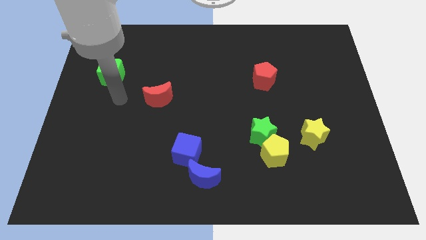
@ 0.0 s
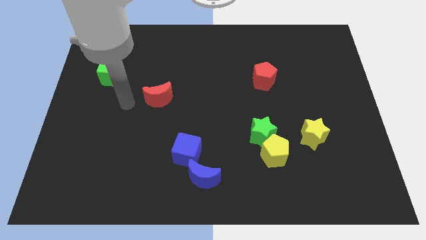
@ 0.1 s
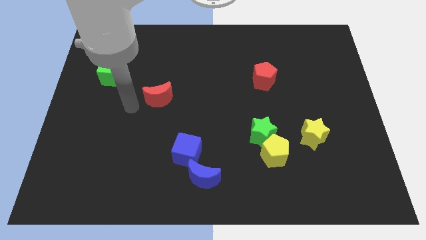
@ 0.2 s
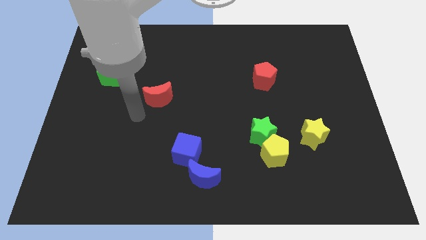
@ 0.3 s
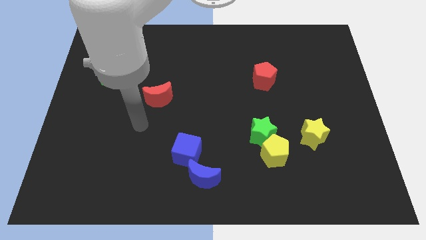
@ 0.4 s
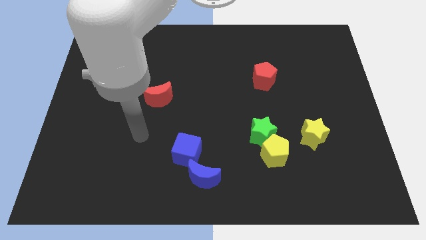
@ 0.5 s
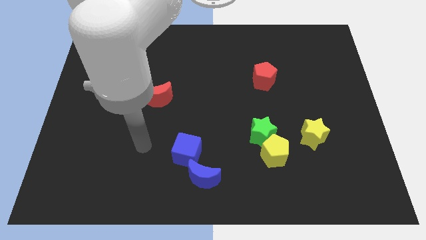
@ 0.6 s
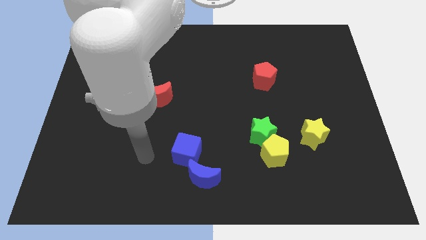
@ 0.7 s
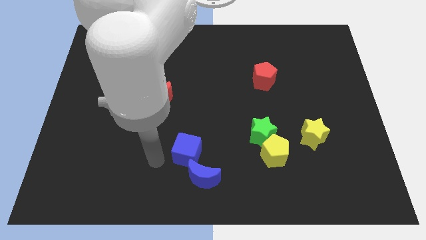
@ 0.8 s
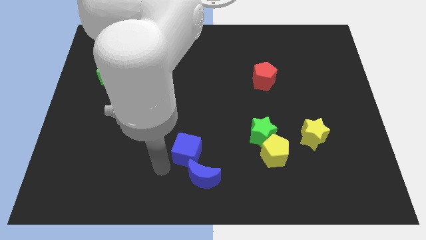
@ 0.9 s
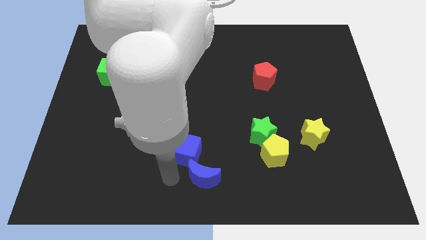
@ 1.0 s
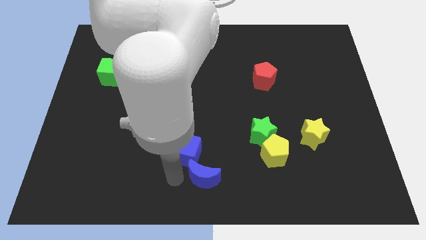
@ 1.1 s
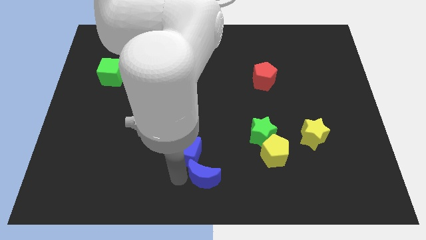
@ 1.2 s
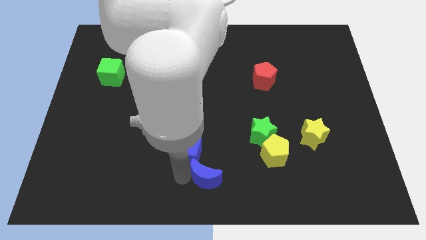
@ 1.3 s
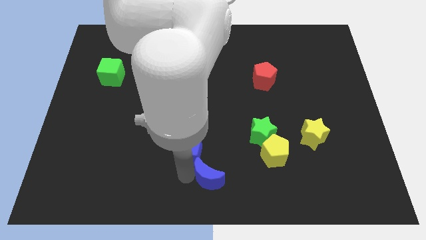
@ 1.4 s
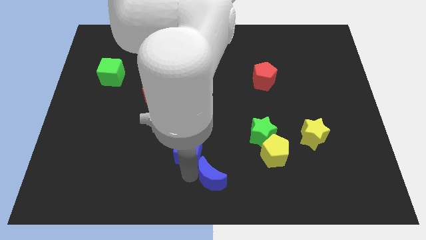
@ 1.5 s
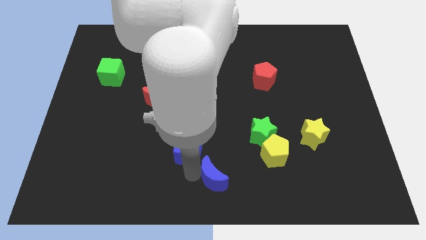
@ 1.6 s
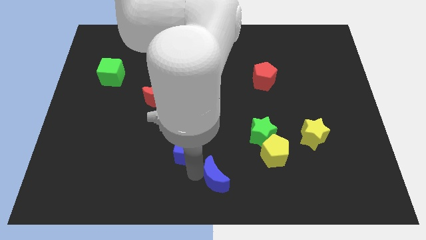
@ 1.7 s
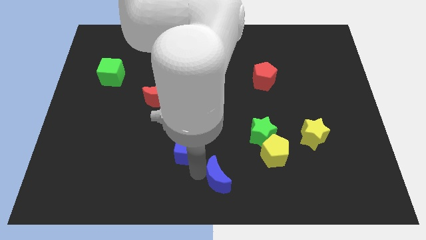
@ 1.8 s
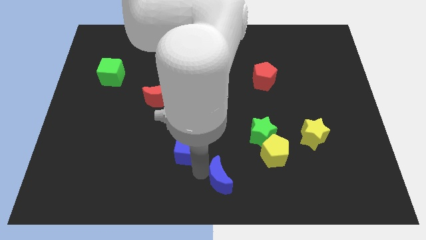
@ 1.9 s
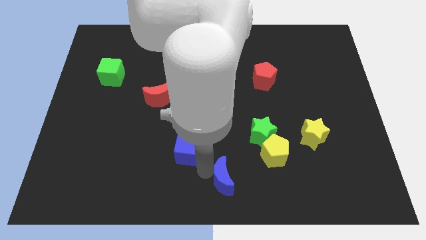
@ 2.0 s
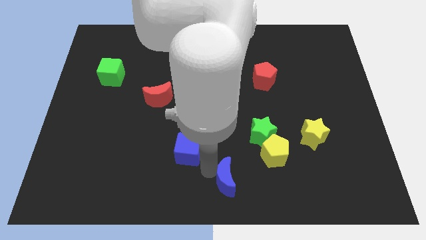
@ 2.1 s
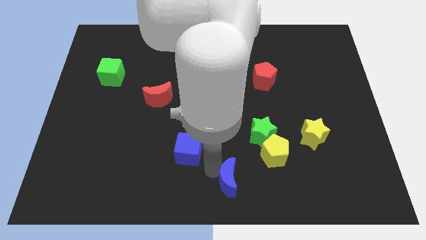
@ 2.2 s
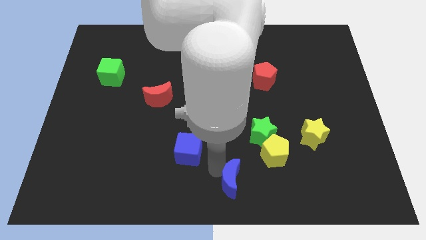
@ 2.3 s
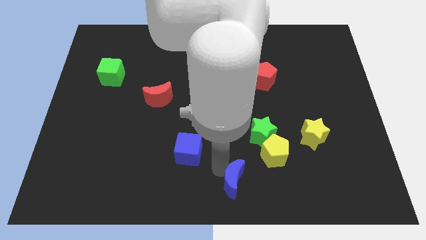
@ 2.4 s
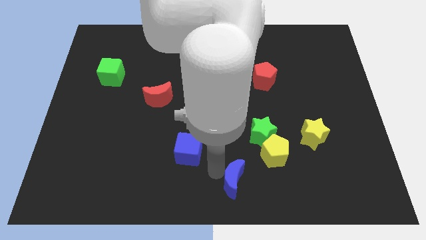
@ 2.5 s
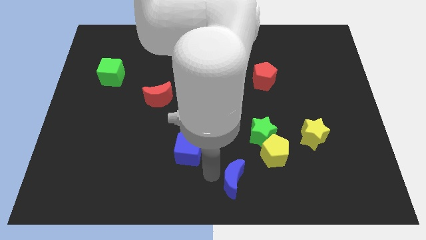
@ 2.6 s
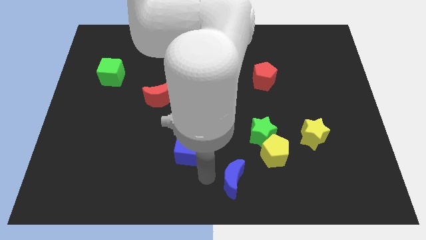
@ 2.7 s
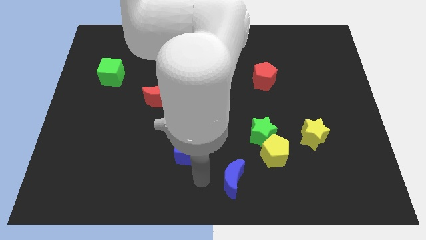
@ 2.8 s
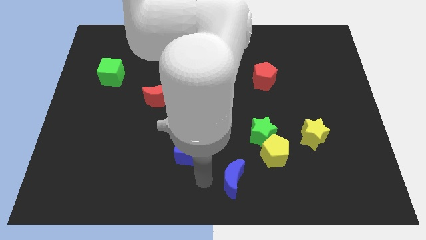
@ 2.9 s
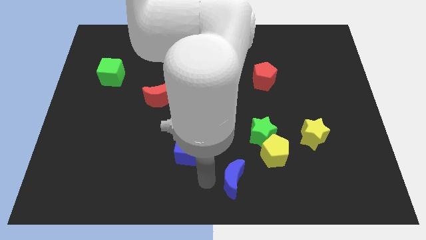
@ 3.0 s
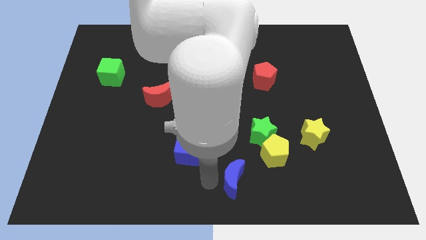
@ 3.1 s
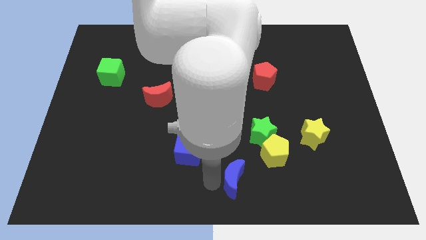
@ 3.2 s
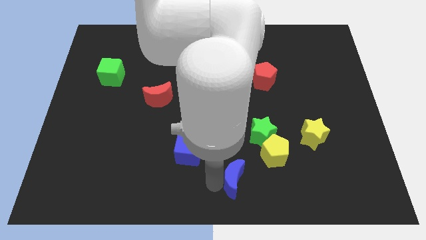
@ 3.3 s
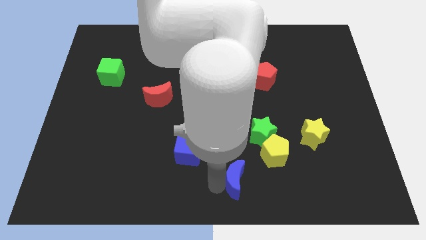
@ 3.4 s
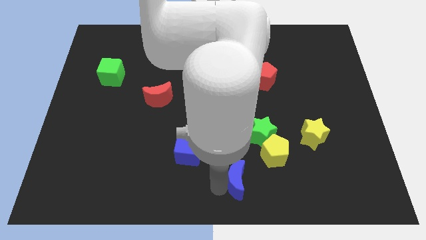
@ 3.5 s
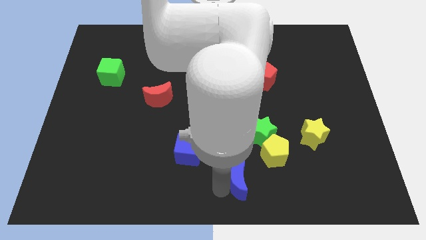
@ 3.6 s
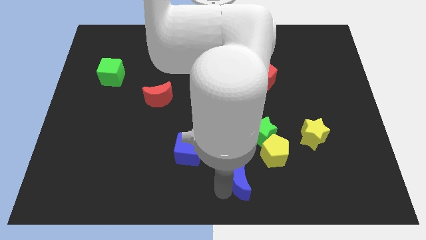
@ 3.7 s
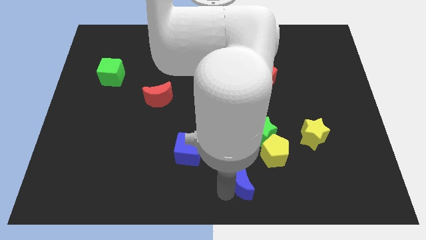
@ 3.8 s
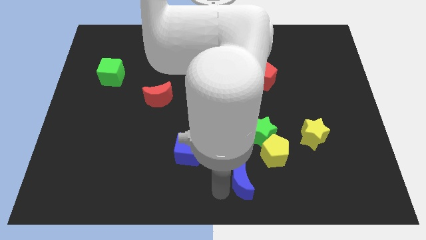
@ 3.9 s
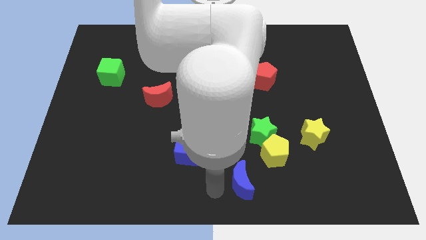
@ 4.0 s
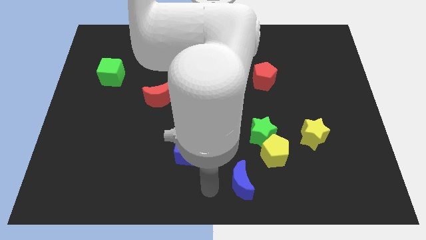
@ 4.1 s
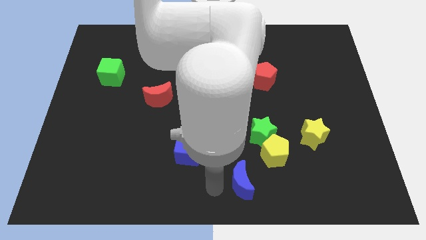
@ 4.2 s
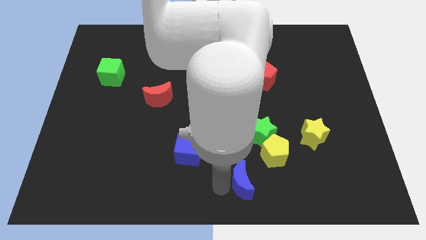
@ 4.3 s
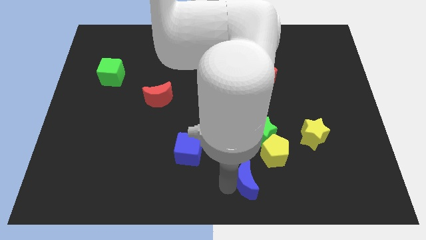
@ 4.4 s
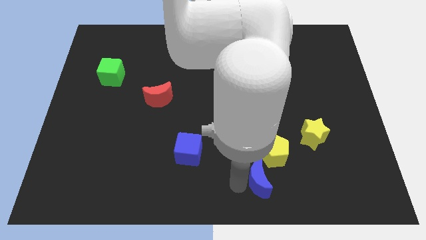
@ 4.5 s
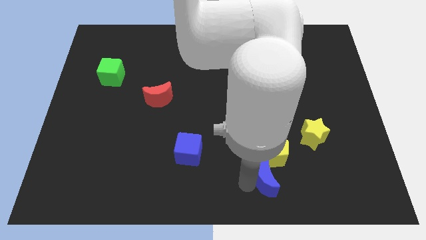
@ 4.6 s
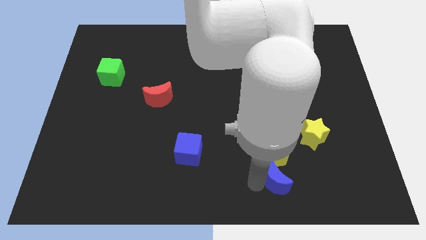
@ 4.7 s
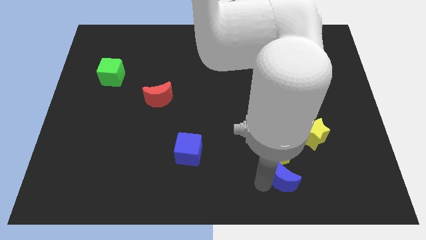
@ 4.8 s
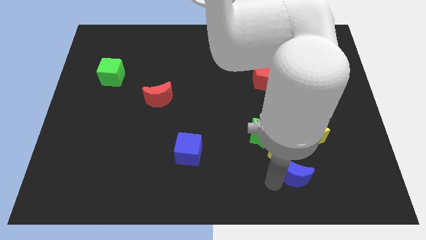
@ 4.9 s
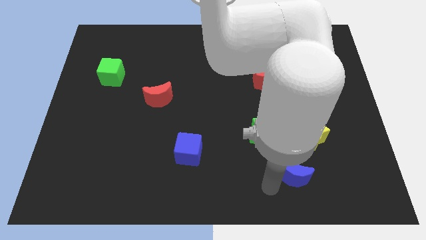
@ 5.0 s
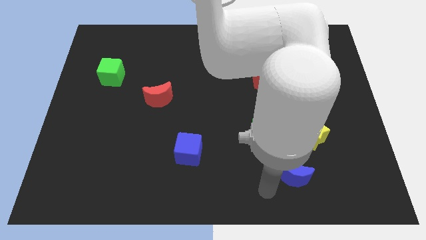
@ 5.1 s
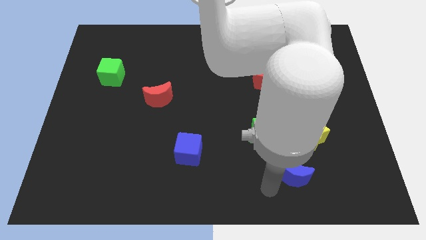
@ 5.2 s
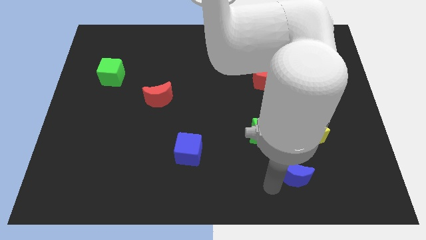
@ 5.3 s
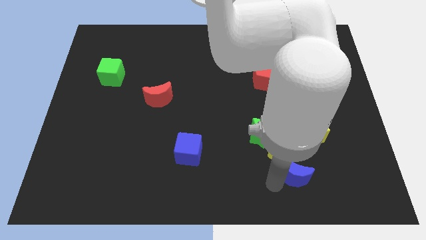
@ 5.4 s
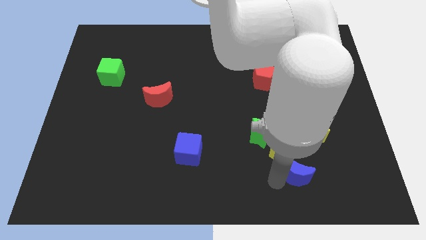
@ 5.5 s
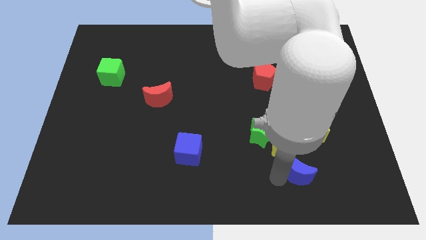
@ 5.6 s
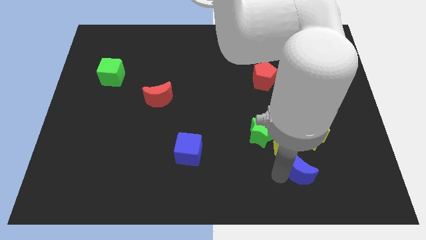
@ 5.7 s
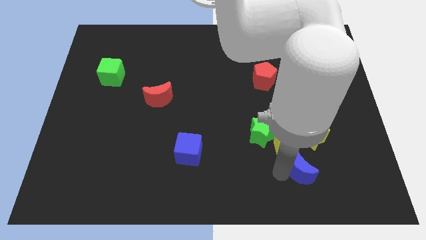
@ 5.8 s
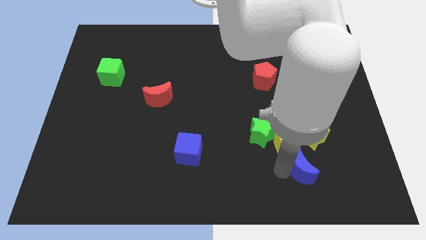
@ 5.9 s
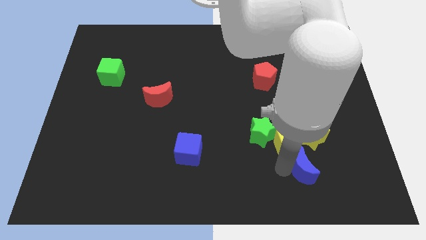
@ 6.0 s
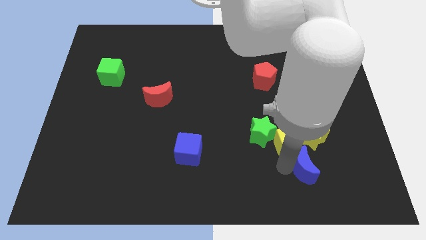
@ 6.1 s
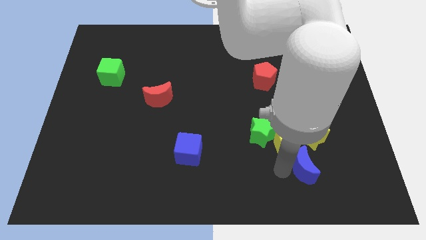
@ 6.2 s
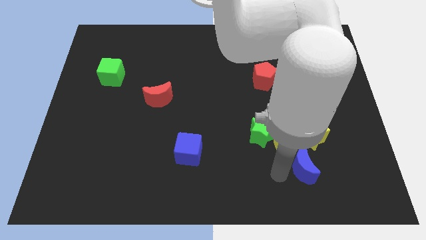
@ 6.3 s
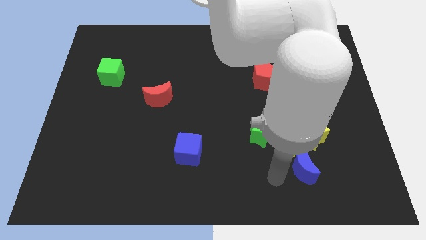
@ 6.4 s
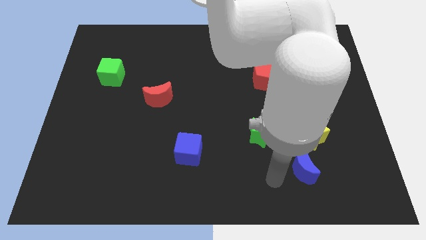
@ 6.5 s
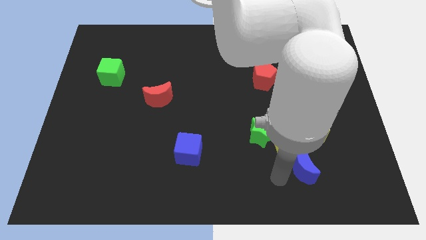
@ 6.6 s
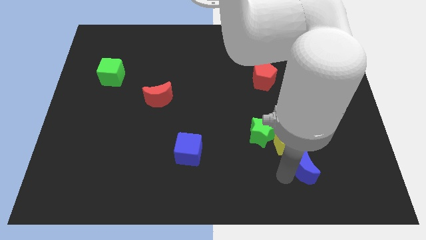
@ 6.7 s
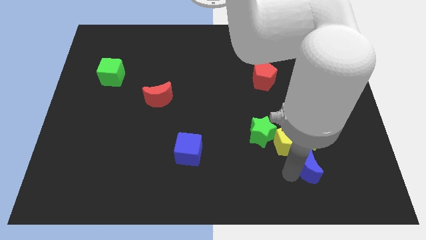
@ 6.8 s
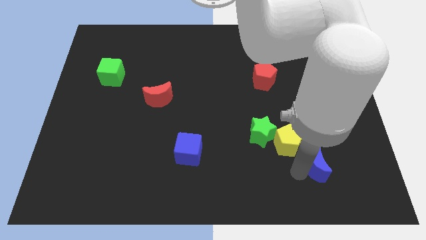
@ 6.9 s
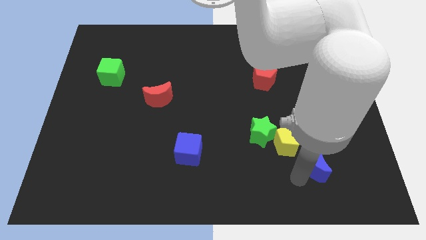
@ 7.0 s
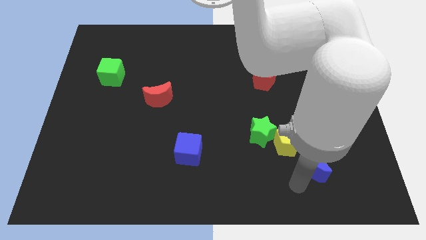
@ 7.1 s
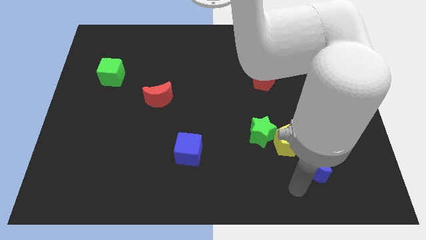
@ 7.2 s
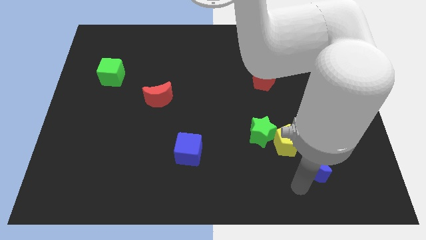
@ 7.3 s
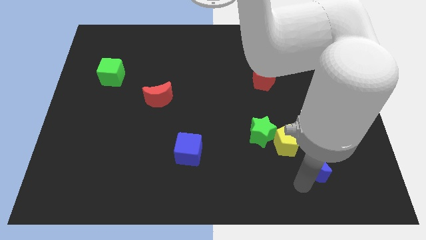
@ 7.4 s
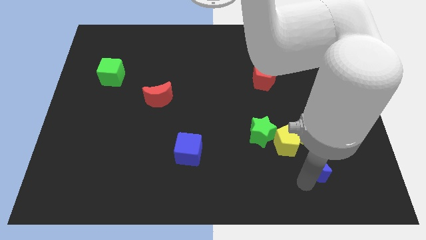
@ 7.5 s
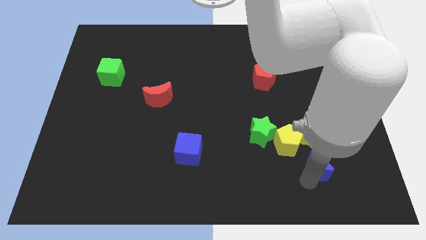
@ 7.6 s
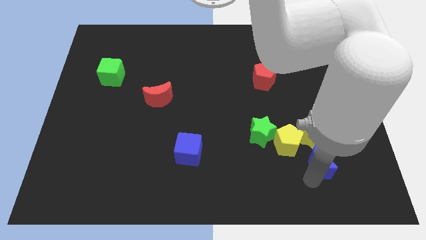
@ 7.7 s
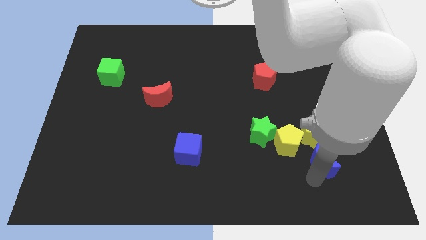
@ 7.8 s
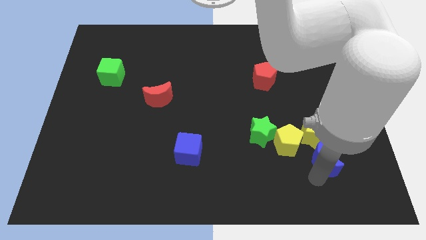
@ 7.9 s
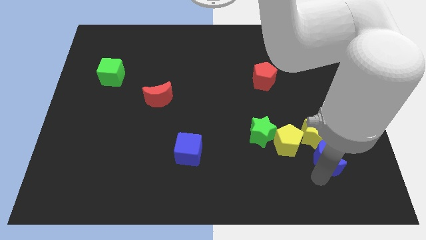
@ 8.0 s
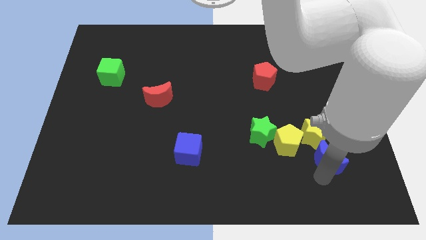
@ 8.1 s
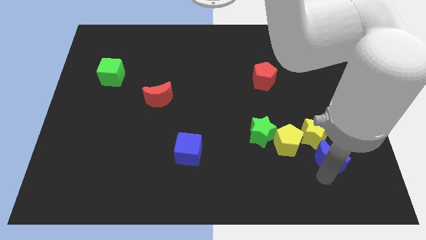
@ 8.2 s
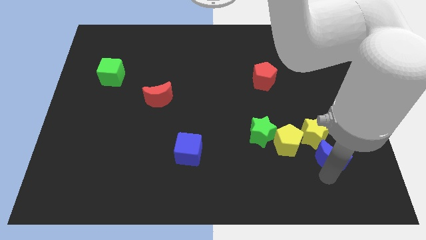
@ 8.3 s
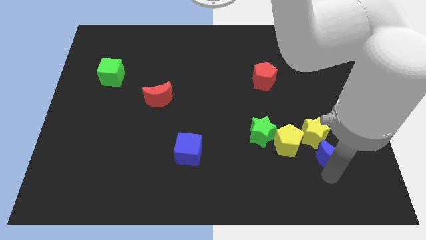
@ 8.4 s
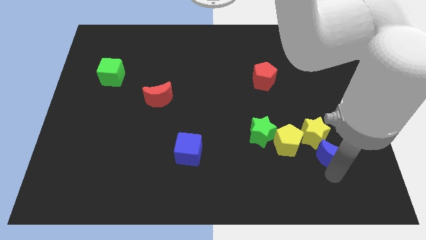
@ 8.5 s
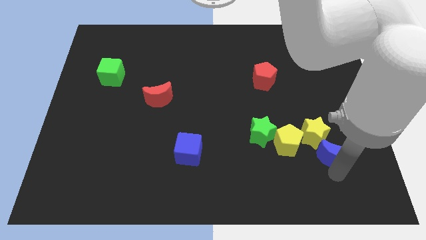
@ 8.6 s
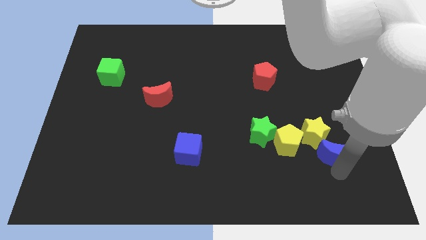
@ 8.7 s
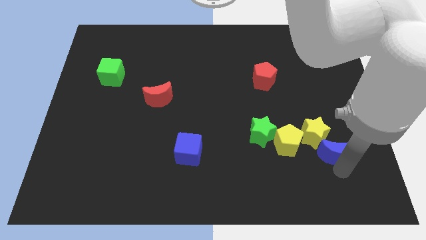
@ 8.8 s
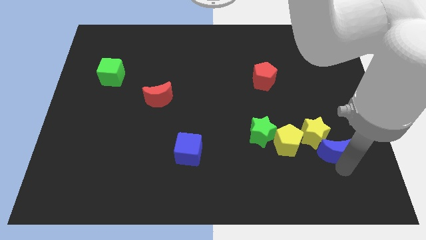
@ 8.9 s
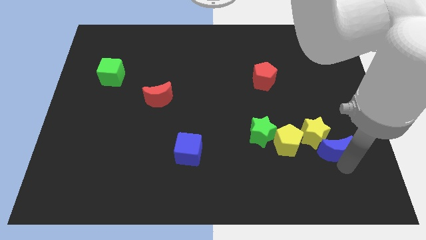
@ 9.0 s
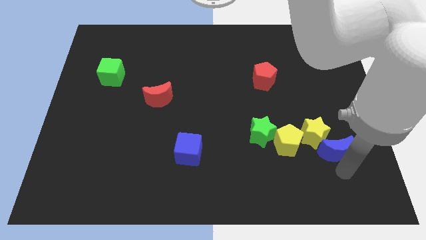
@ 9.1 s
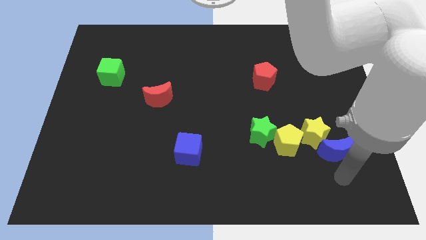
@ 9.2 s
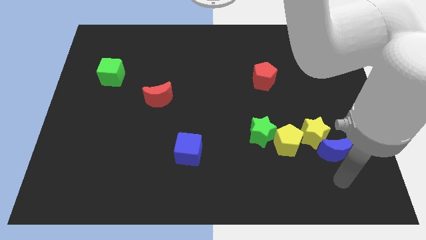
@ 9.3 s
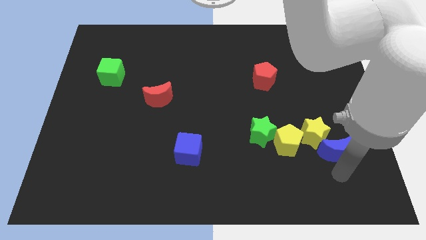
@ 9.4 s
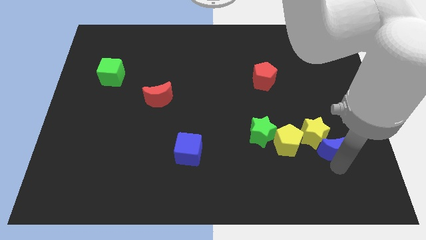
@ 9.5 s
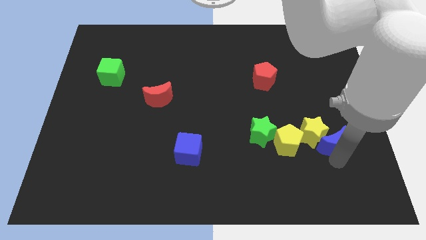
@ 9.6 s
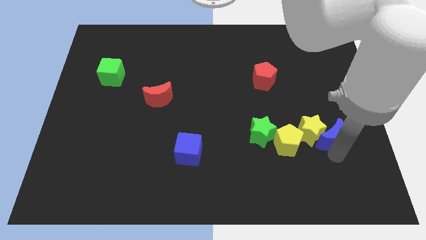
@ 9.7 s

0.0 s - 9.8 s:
push the blue moon diagonally up and to the right of the yellow star
